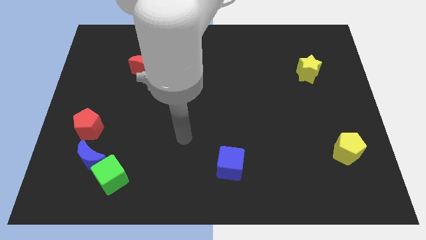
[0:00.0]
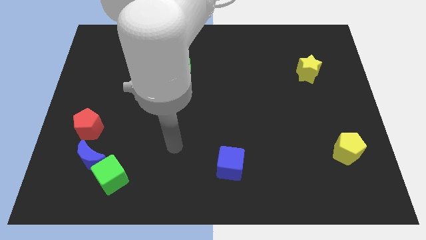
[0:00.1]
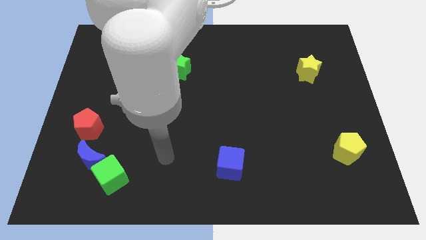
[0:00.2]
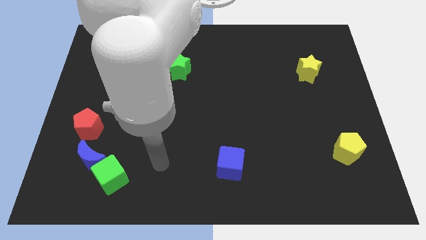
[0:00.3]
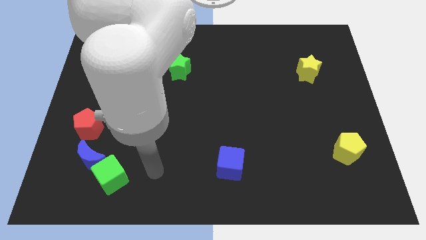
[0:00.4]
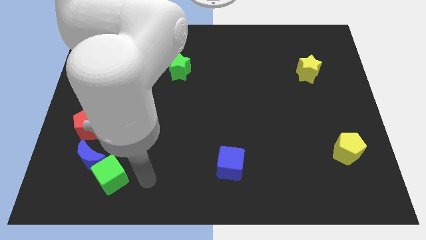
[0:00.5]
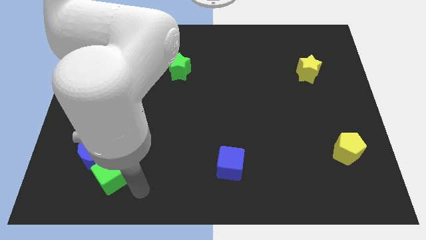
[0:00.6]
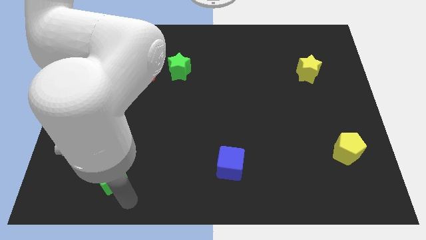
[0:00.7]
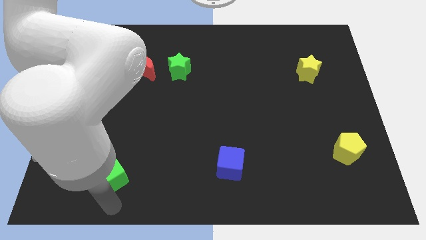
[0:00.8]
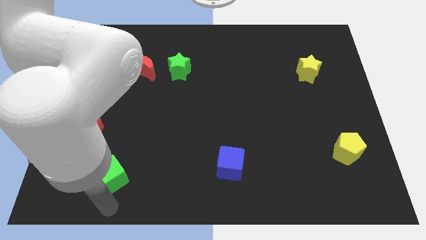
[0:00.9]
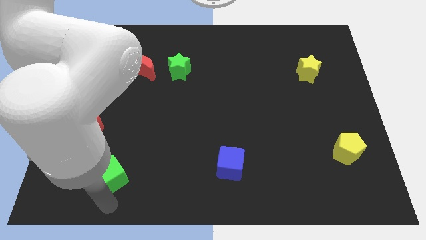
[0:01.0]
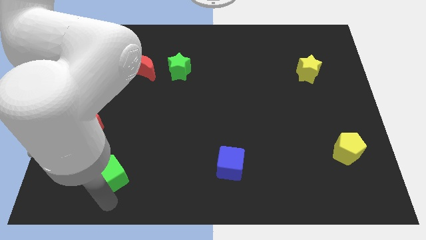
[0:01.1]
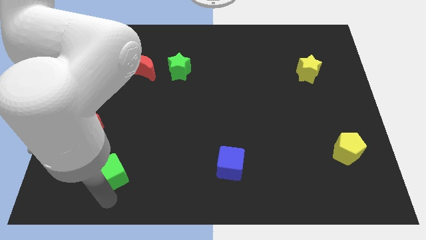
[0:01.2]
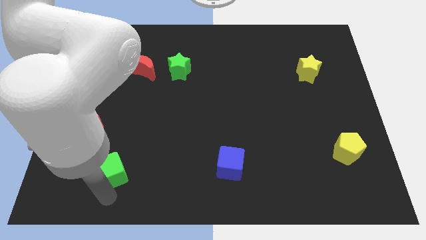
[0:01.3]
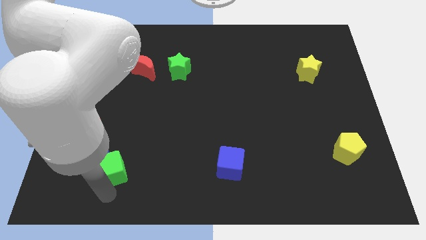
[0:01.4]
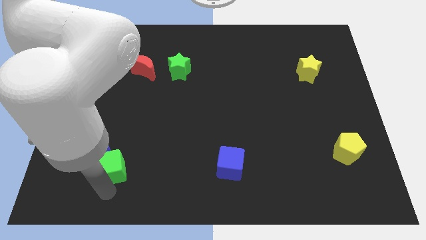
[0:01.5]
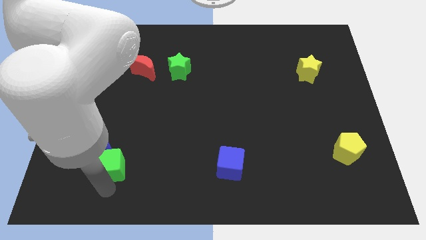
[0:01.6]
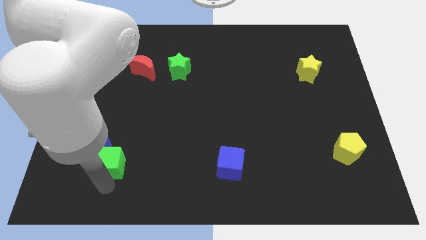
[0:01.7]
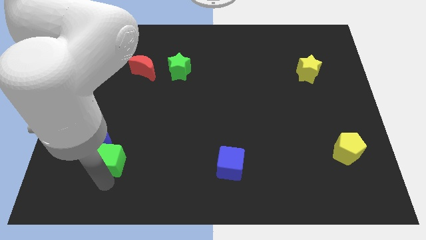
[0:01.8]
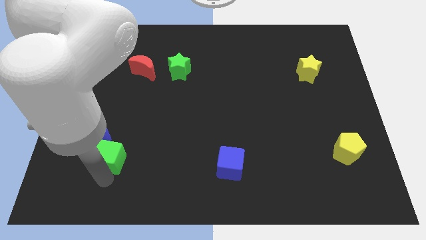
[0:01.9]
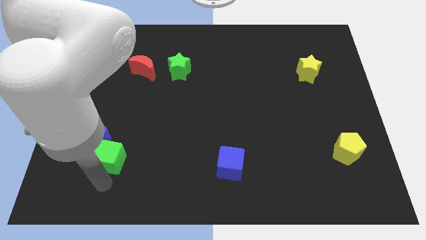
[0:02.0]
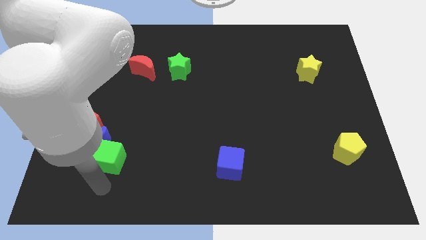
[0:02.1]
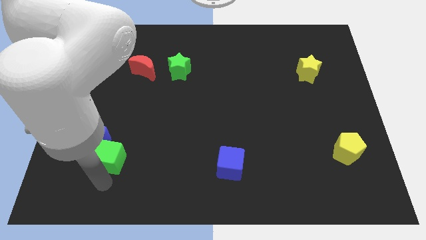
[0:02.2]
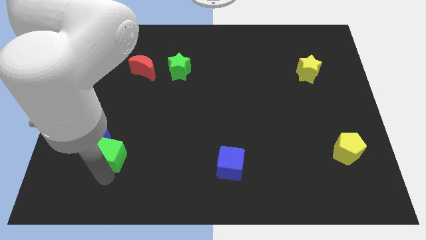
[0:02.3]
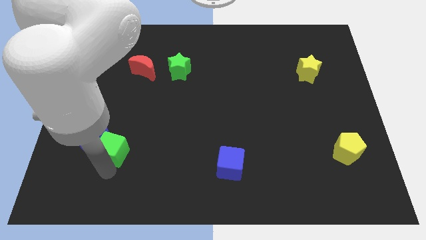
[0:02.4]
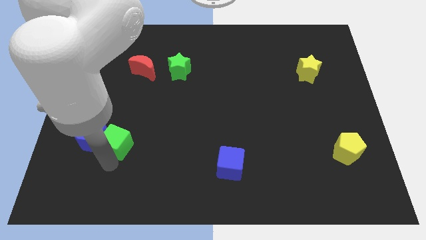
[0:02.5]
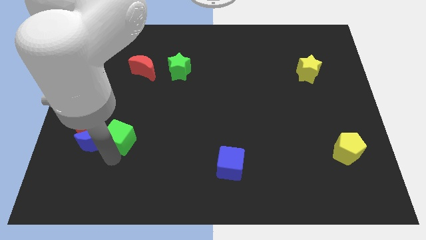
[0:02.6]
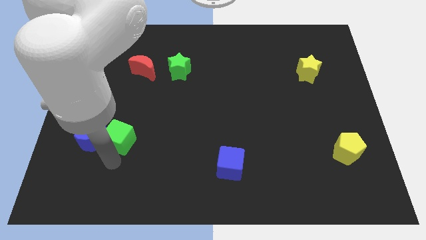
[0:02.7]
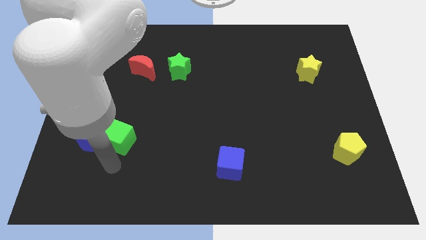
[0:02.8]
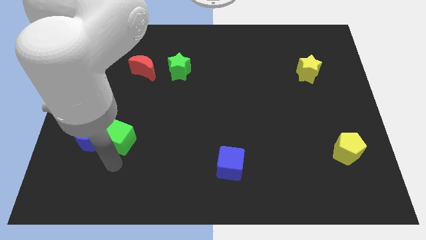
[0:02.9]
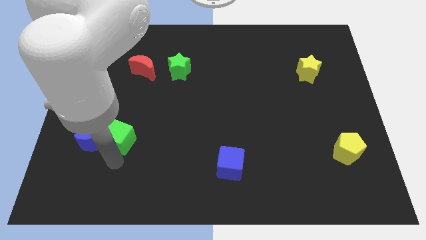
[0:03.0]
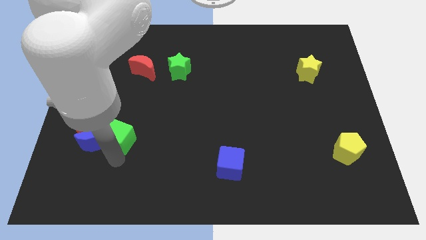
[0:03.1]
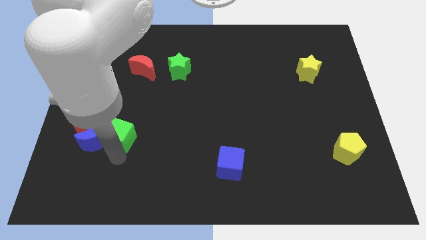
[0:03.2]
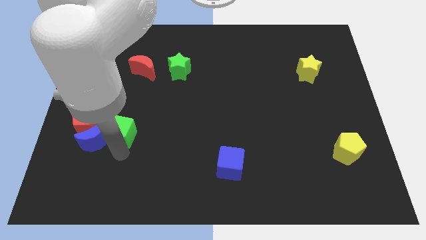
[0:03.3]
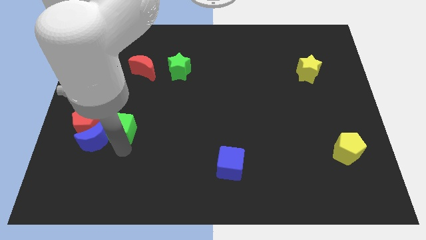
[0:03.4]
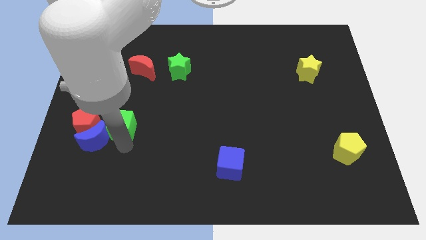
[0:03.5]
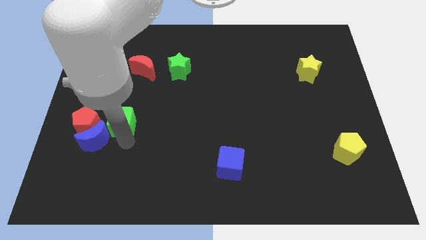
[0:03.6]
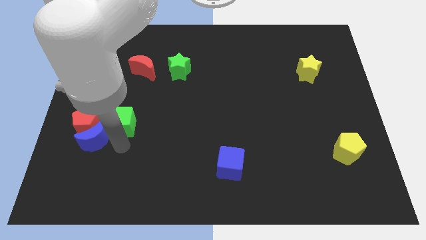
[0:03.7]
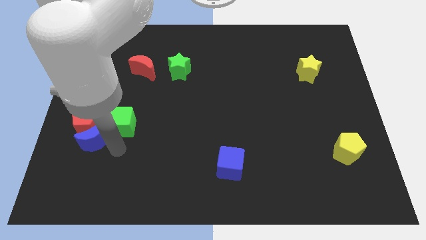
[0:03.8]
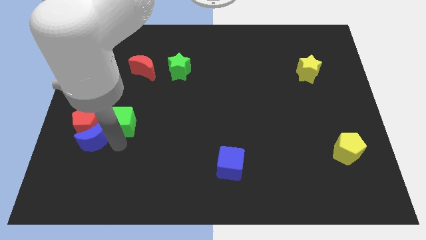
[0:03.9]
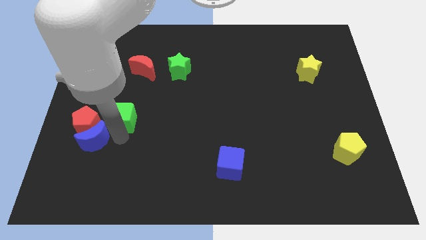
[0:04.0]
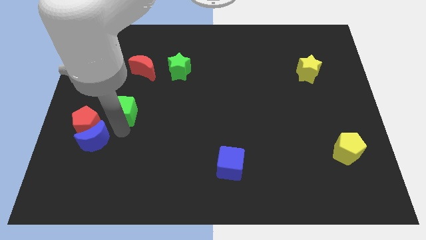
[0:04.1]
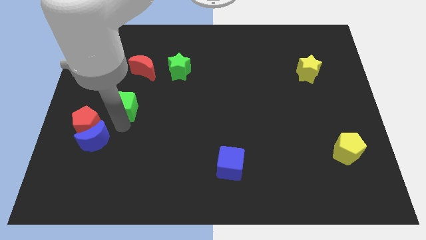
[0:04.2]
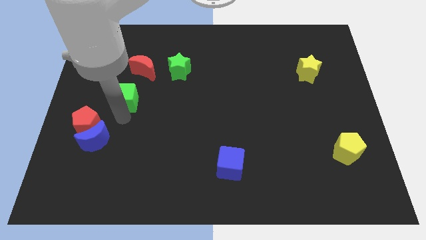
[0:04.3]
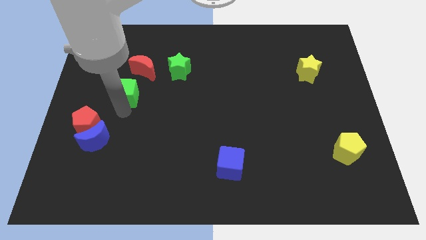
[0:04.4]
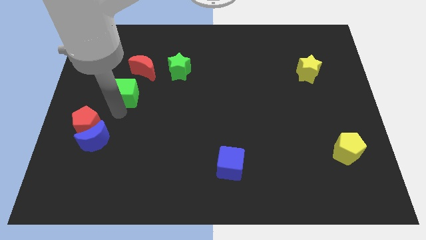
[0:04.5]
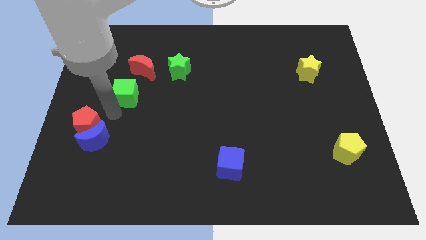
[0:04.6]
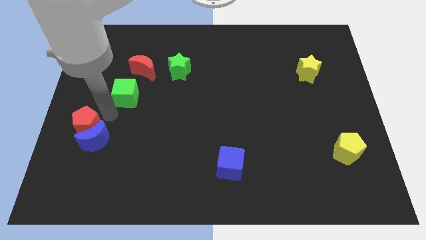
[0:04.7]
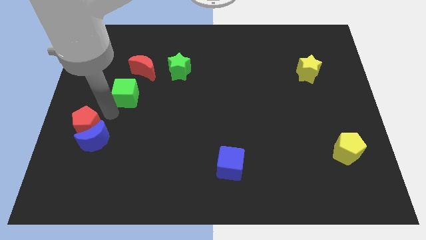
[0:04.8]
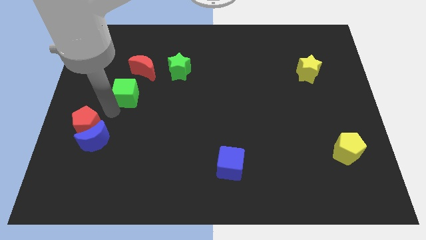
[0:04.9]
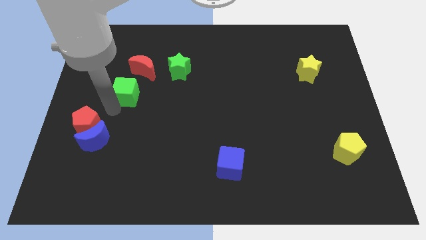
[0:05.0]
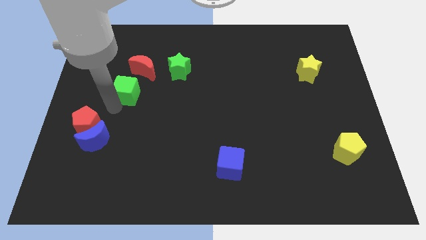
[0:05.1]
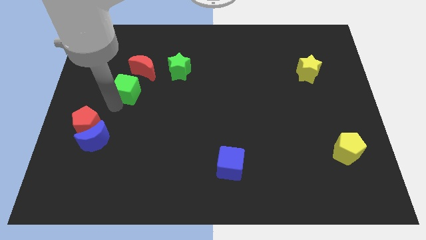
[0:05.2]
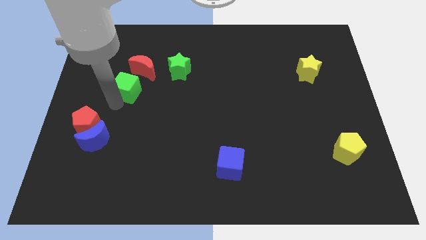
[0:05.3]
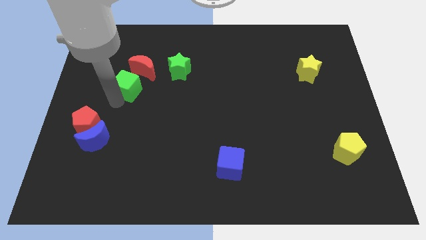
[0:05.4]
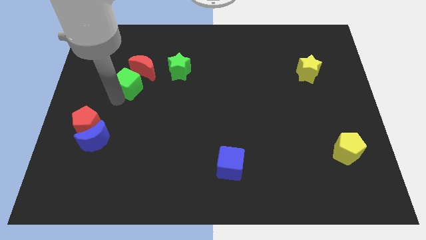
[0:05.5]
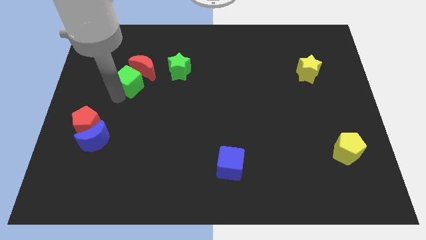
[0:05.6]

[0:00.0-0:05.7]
move the green cube next to the red moon

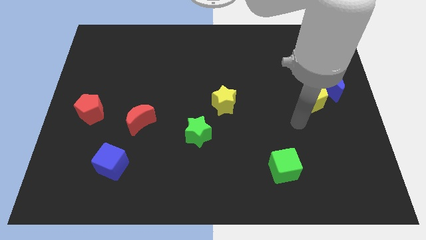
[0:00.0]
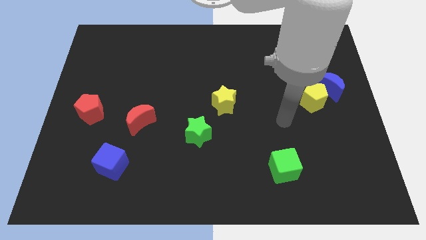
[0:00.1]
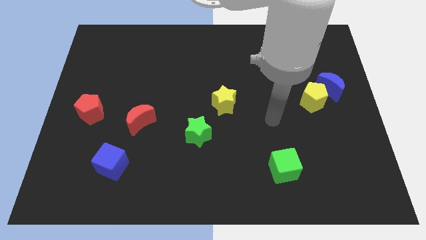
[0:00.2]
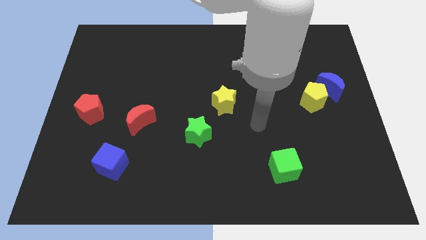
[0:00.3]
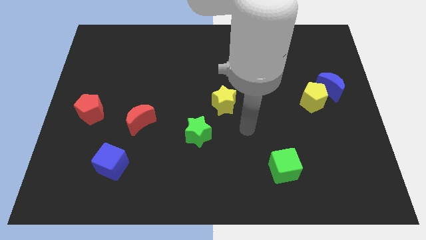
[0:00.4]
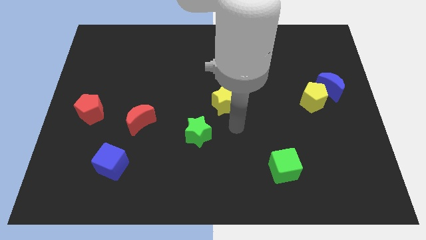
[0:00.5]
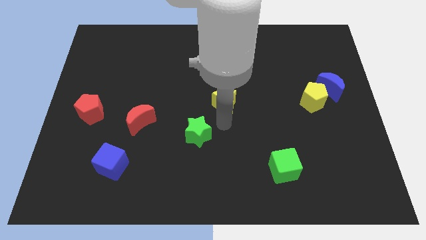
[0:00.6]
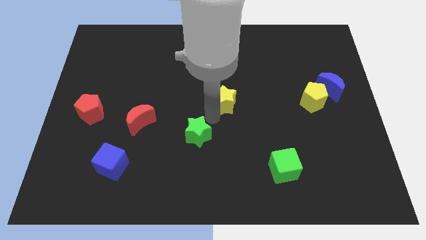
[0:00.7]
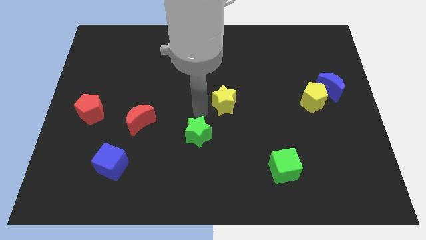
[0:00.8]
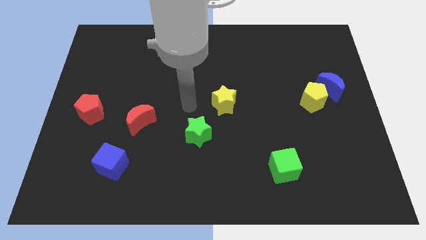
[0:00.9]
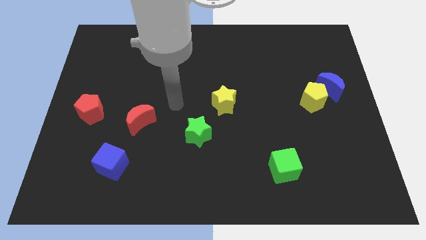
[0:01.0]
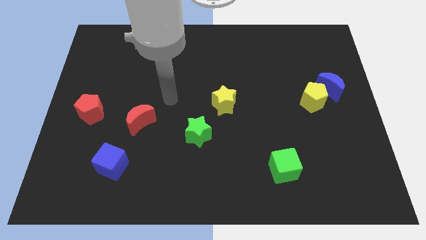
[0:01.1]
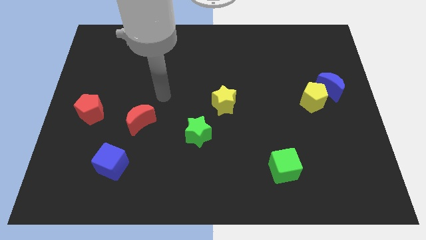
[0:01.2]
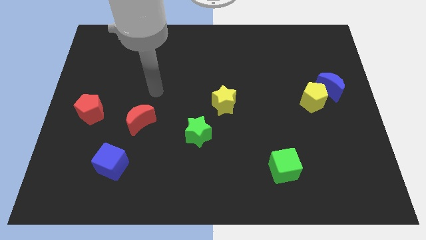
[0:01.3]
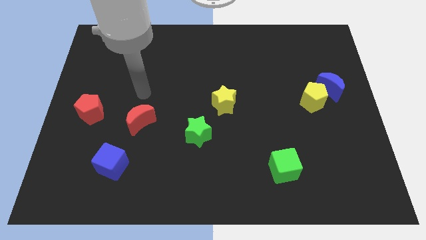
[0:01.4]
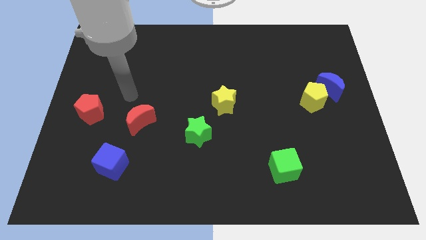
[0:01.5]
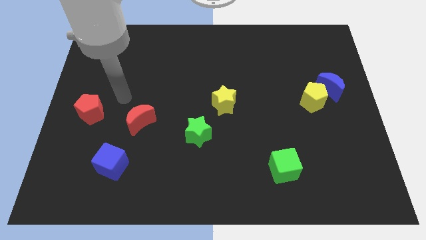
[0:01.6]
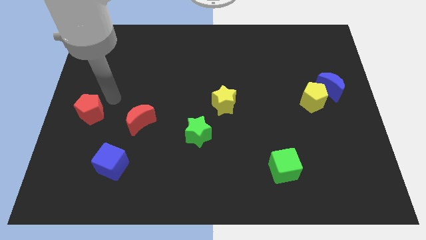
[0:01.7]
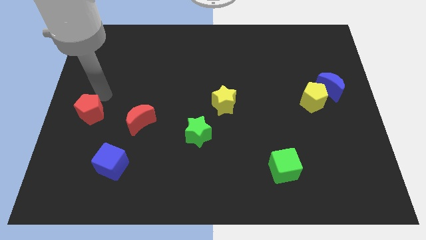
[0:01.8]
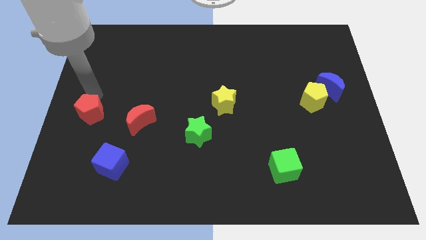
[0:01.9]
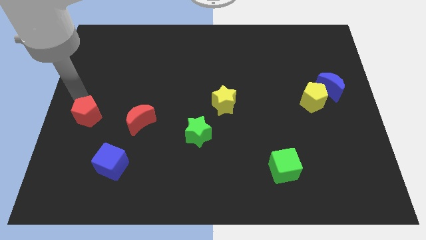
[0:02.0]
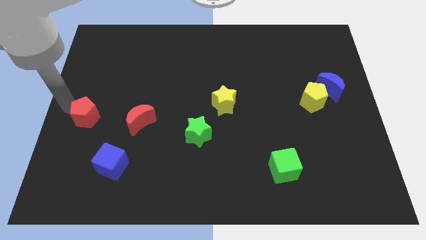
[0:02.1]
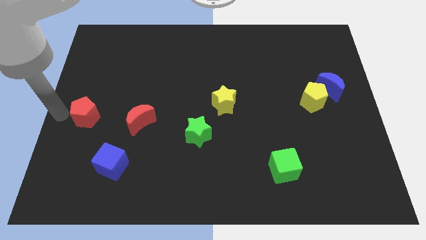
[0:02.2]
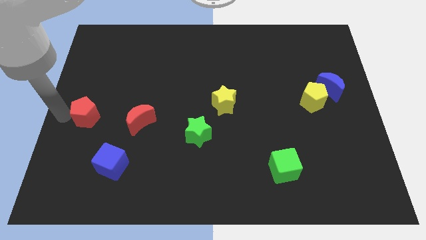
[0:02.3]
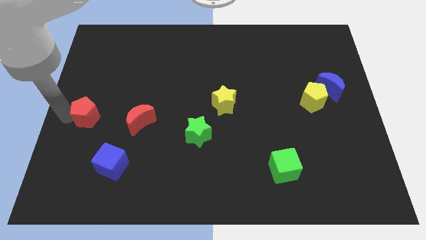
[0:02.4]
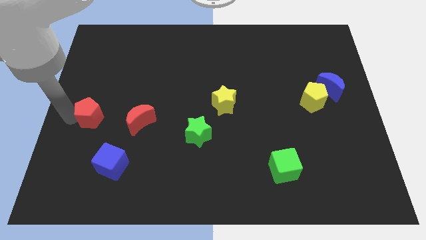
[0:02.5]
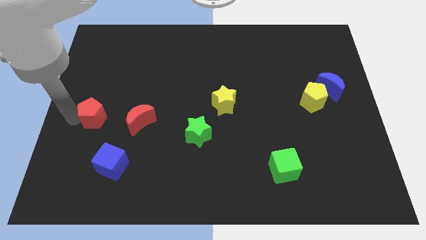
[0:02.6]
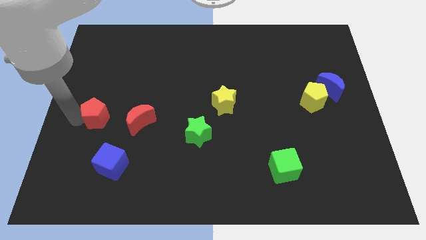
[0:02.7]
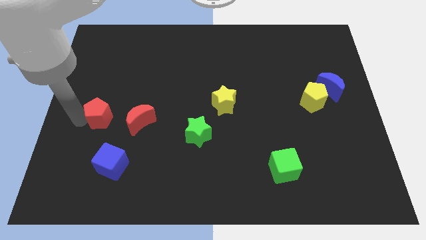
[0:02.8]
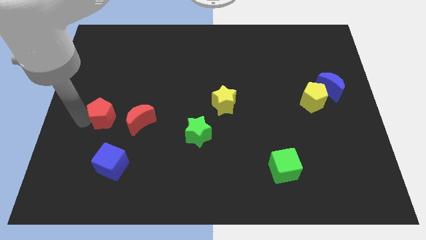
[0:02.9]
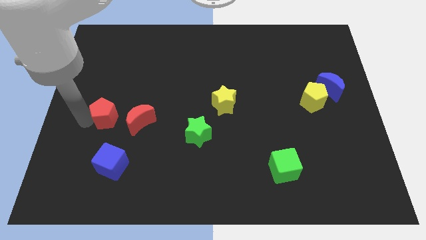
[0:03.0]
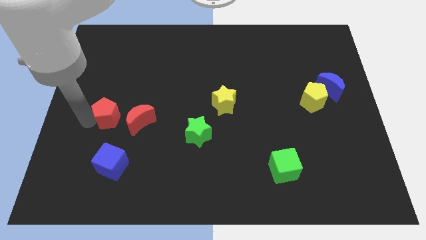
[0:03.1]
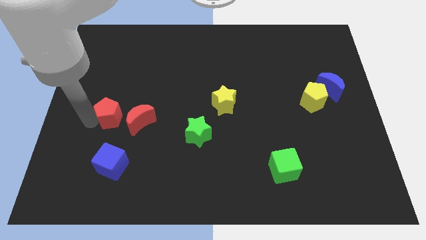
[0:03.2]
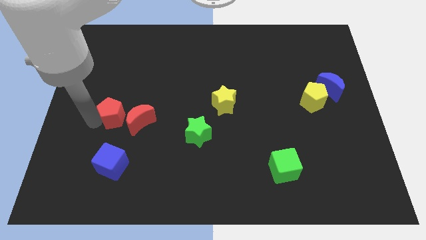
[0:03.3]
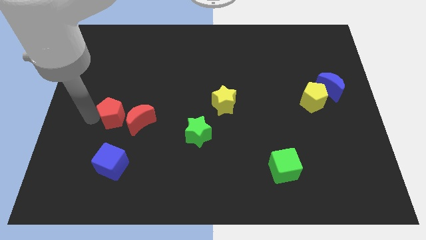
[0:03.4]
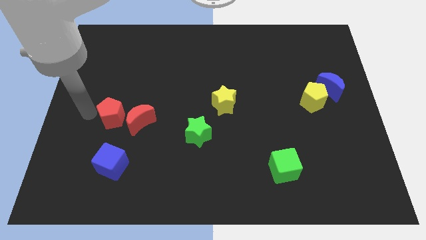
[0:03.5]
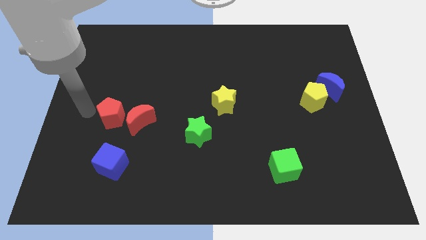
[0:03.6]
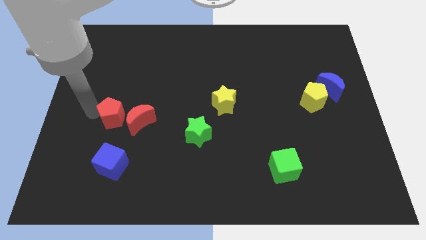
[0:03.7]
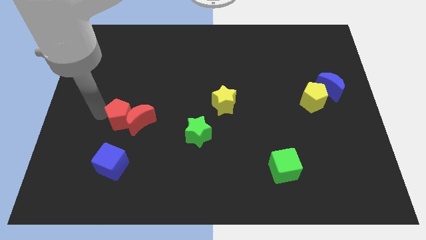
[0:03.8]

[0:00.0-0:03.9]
put the red pentagon to the red moon
